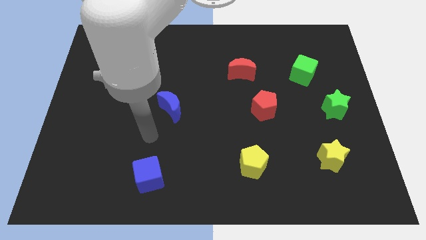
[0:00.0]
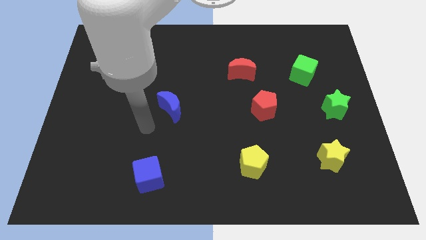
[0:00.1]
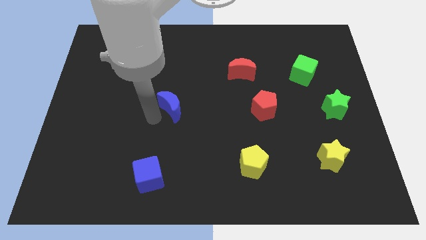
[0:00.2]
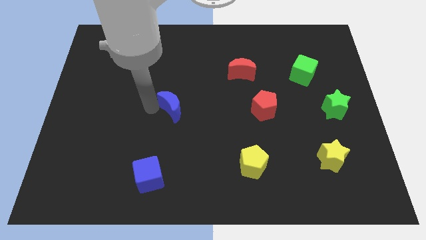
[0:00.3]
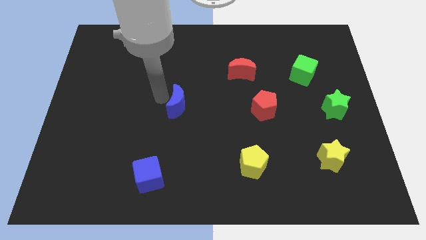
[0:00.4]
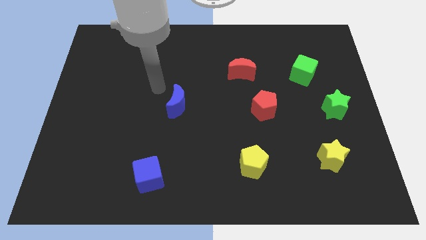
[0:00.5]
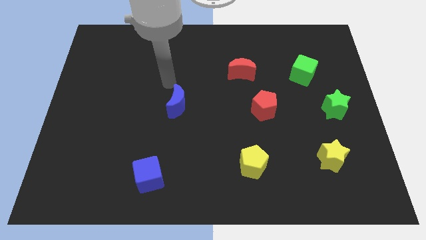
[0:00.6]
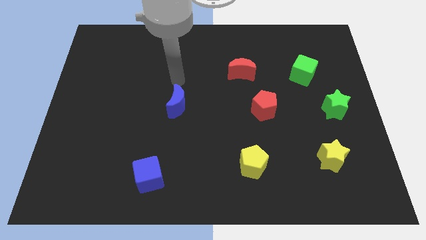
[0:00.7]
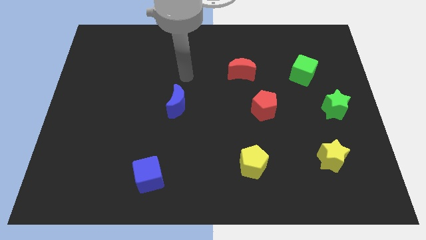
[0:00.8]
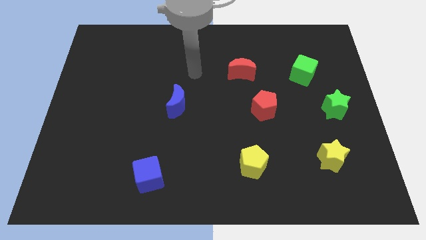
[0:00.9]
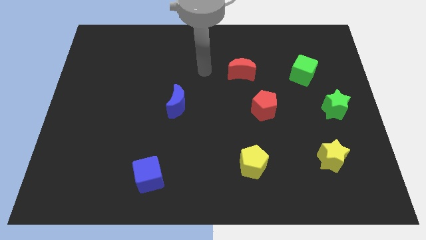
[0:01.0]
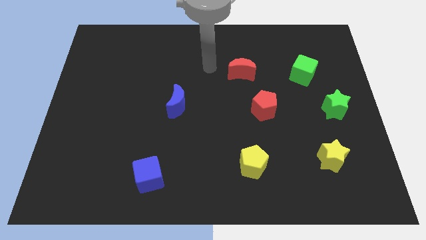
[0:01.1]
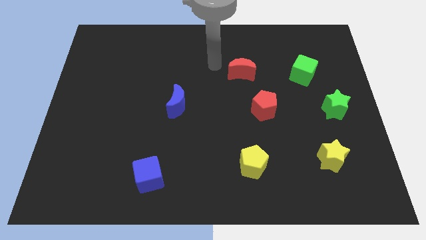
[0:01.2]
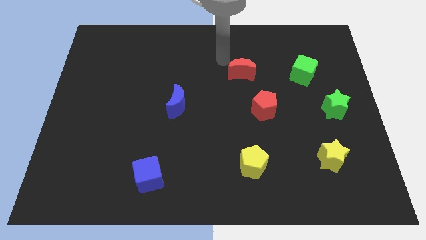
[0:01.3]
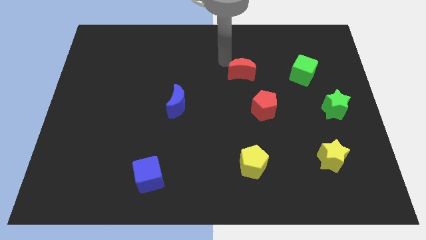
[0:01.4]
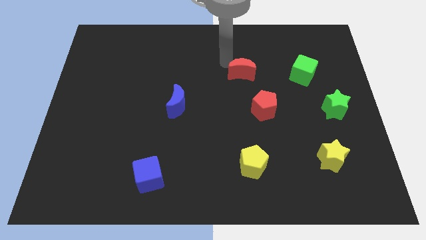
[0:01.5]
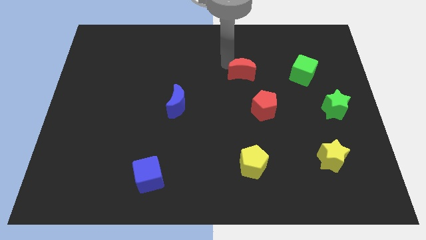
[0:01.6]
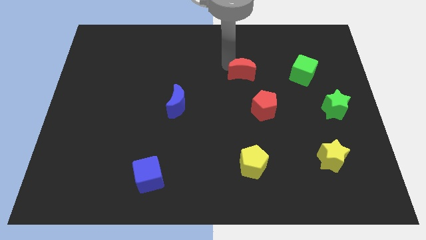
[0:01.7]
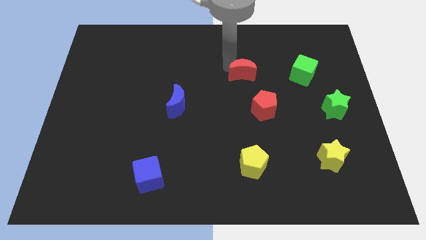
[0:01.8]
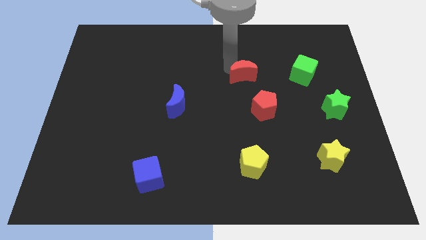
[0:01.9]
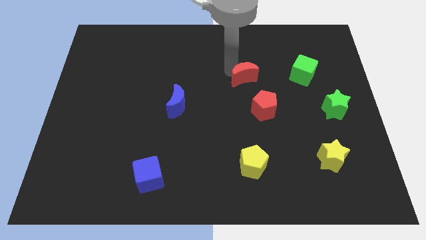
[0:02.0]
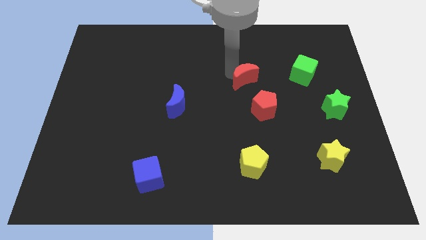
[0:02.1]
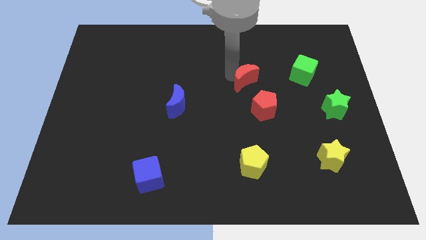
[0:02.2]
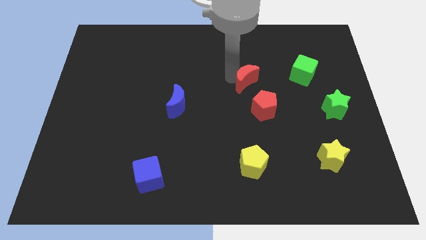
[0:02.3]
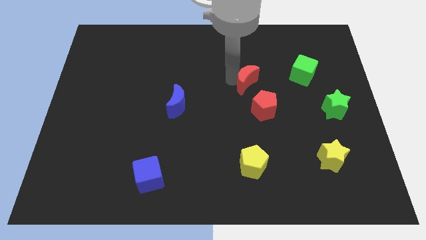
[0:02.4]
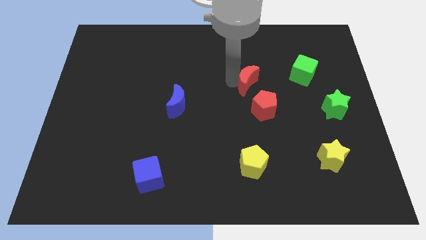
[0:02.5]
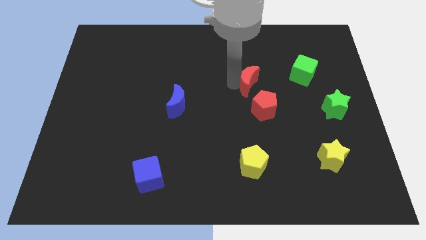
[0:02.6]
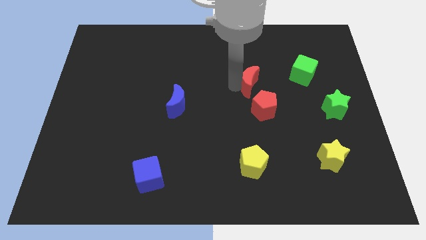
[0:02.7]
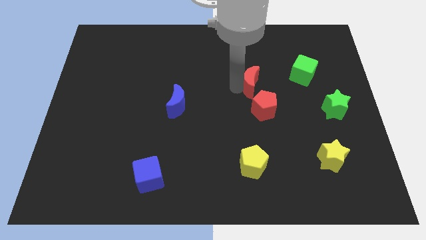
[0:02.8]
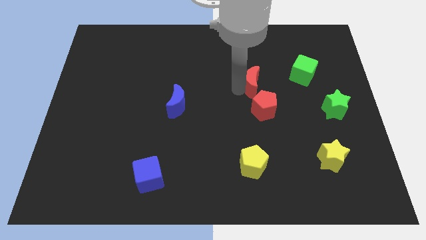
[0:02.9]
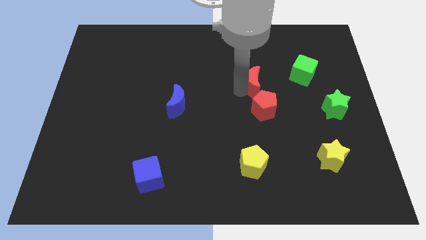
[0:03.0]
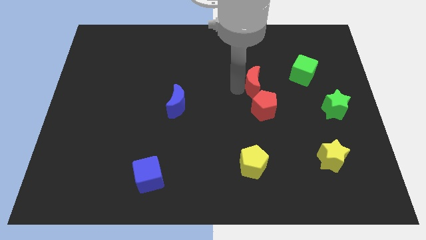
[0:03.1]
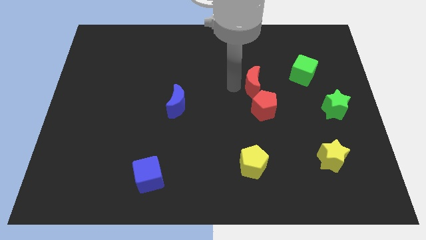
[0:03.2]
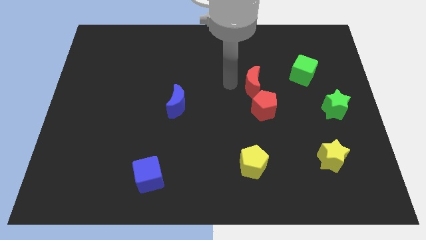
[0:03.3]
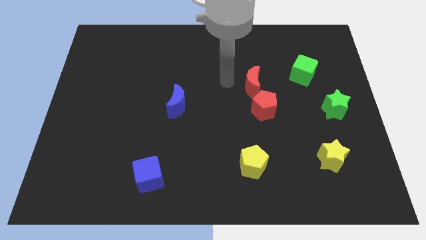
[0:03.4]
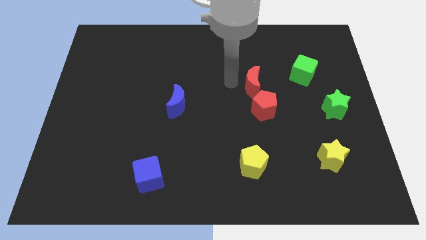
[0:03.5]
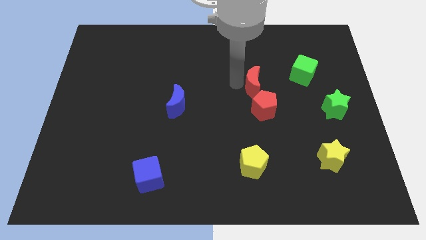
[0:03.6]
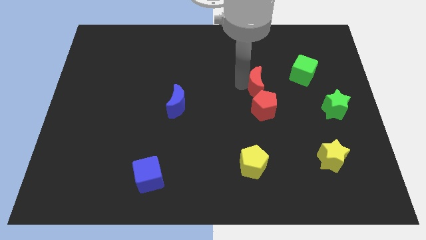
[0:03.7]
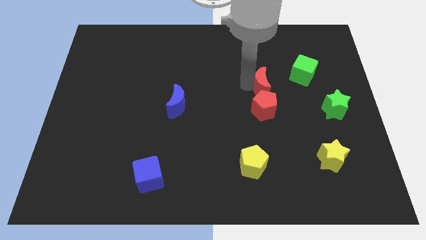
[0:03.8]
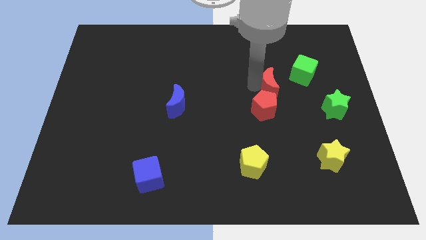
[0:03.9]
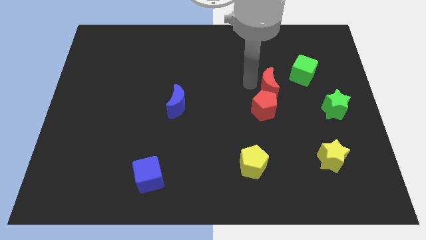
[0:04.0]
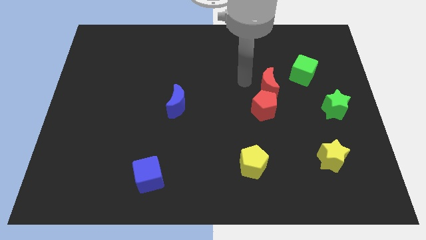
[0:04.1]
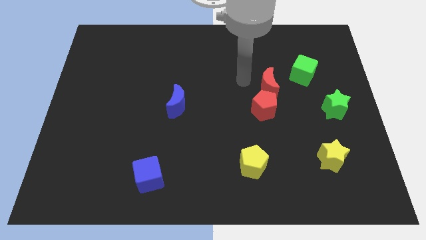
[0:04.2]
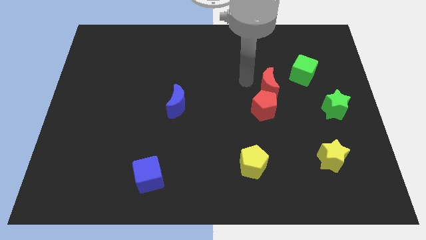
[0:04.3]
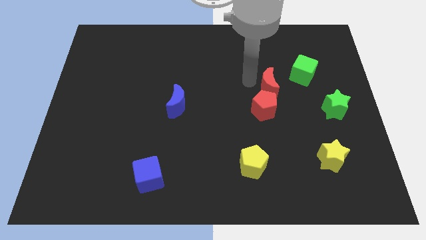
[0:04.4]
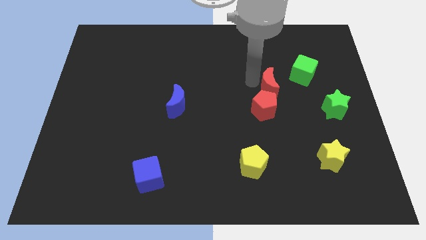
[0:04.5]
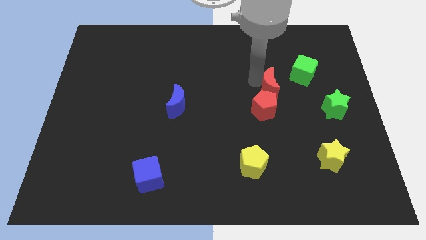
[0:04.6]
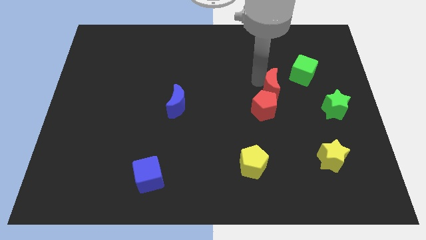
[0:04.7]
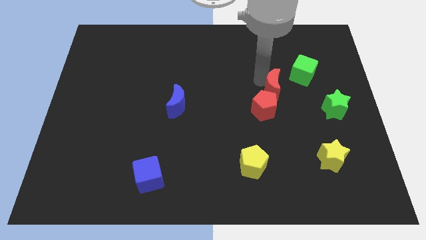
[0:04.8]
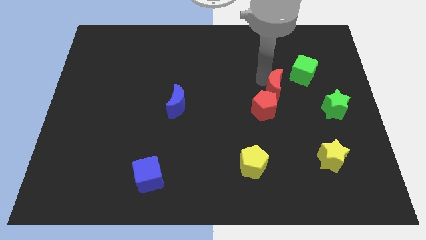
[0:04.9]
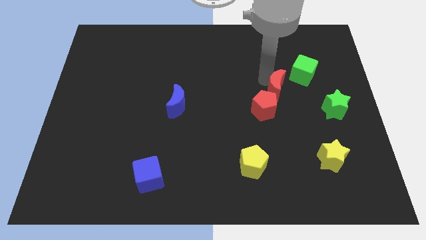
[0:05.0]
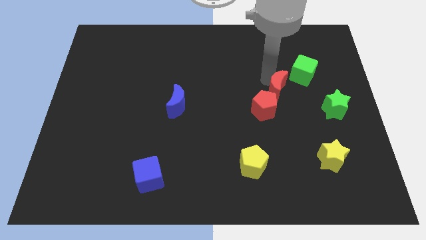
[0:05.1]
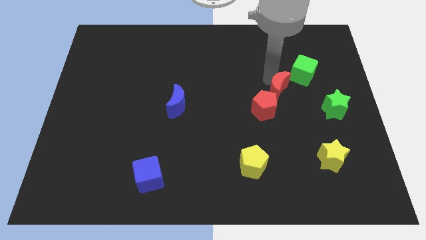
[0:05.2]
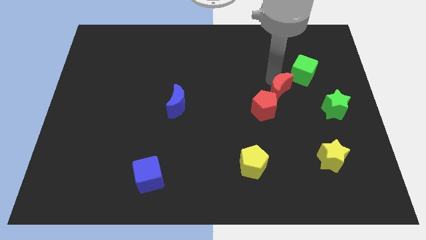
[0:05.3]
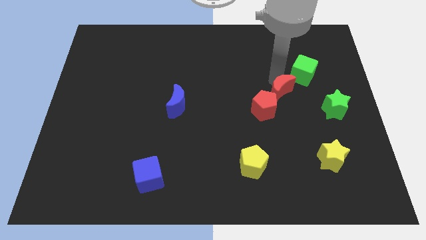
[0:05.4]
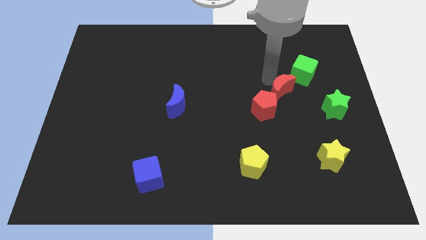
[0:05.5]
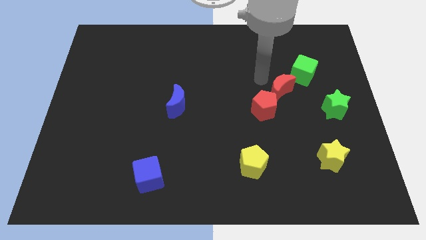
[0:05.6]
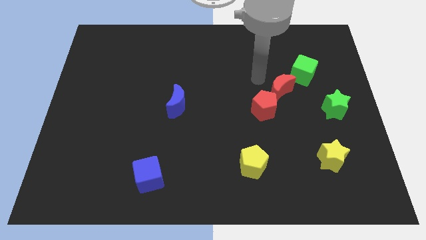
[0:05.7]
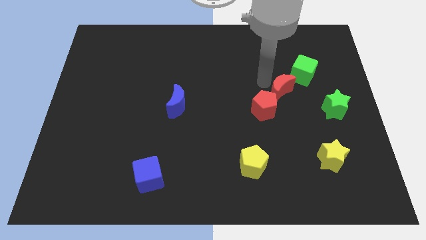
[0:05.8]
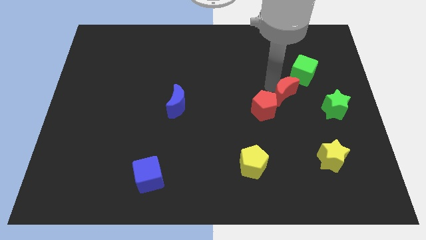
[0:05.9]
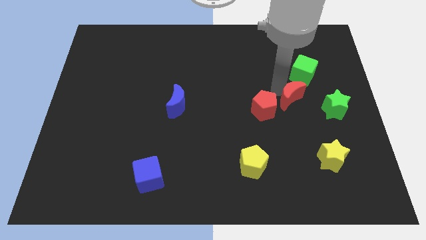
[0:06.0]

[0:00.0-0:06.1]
push the red moon to the bottom side of the green cube

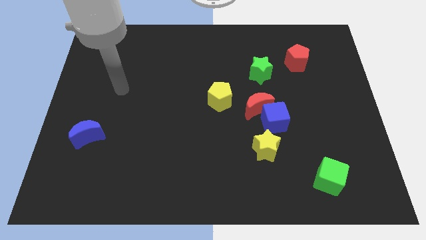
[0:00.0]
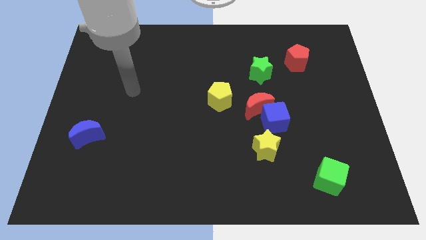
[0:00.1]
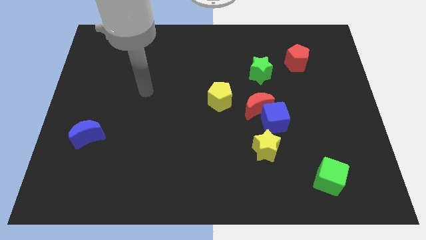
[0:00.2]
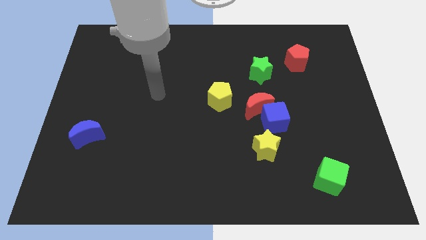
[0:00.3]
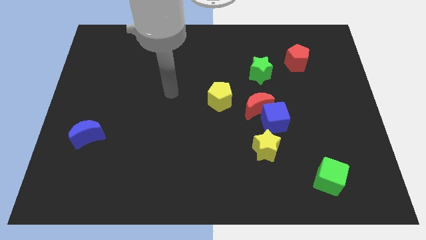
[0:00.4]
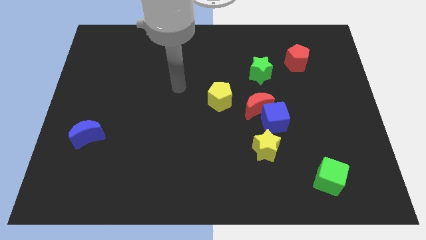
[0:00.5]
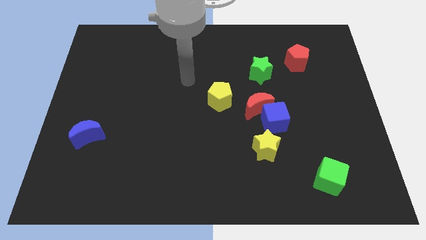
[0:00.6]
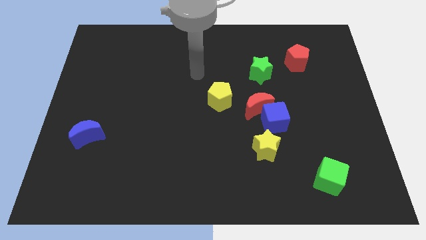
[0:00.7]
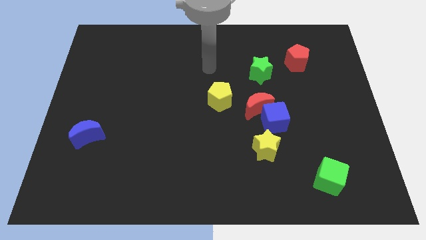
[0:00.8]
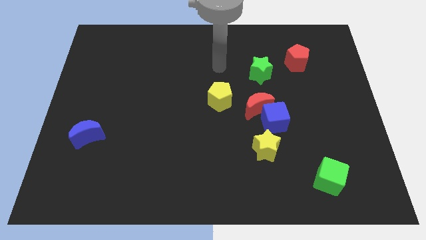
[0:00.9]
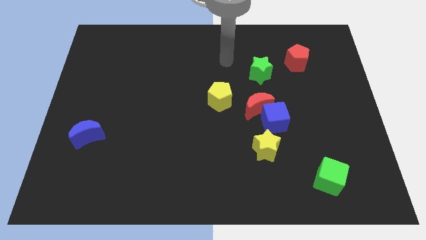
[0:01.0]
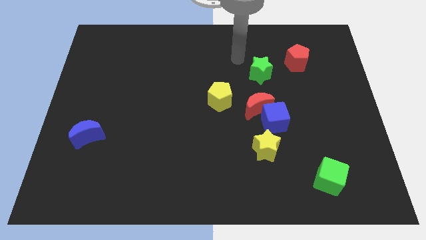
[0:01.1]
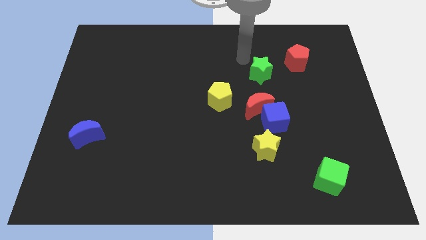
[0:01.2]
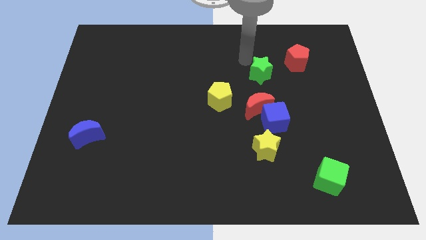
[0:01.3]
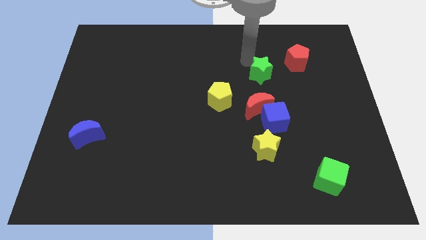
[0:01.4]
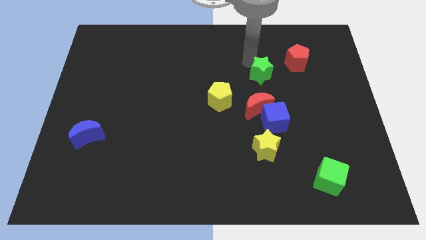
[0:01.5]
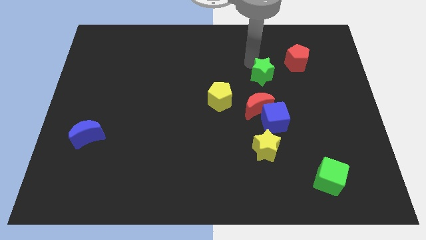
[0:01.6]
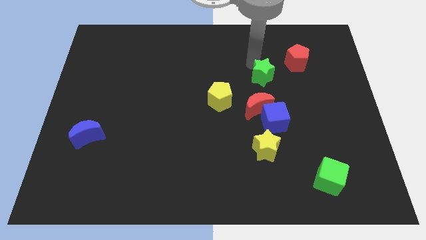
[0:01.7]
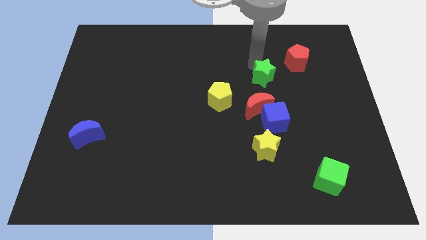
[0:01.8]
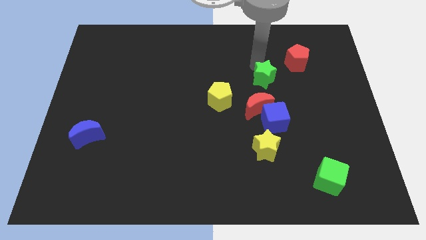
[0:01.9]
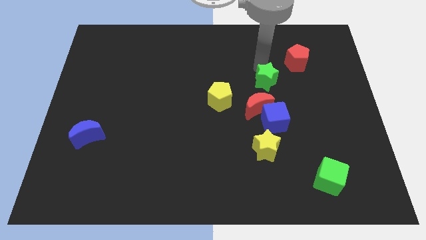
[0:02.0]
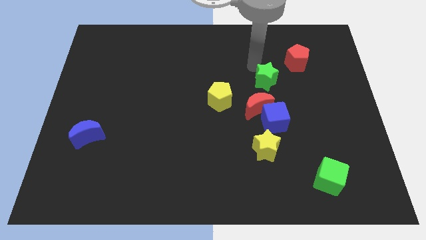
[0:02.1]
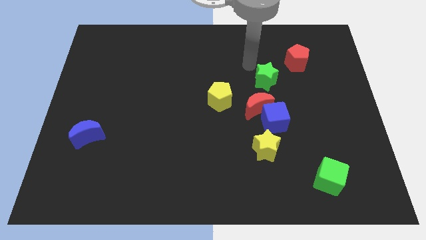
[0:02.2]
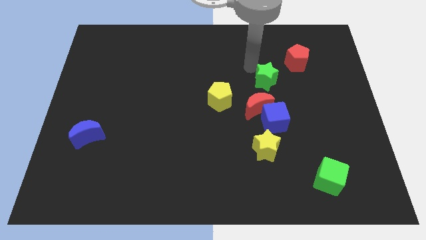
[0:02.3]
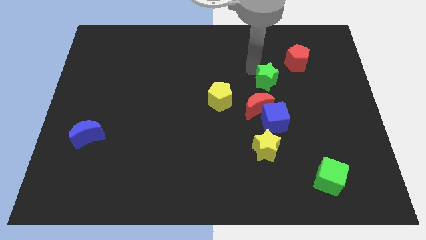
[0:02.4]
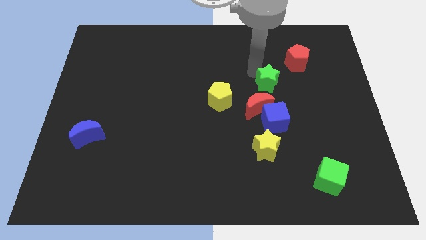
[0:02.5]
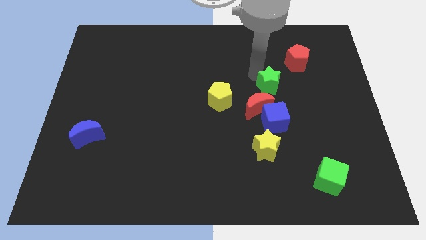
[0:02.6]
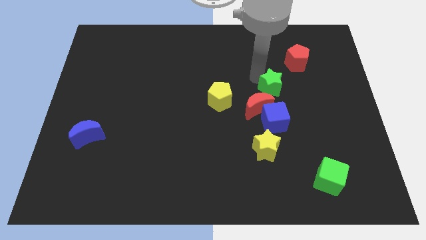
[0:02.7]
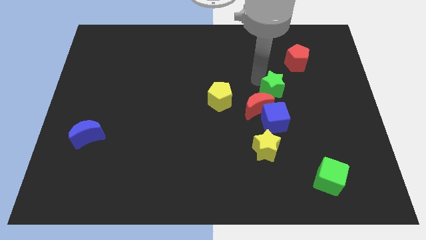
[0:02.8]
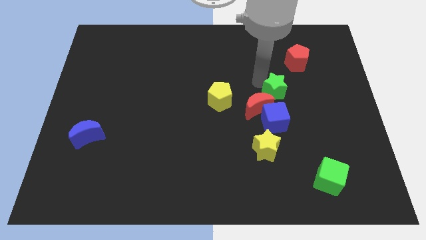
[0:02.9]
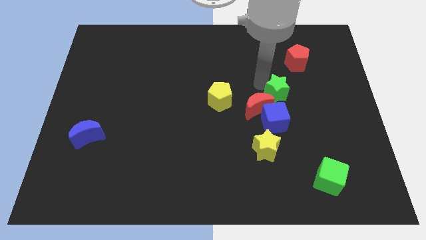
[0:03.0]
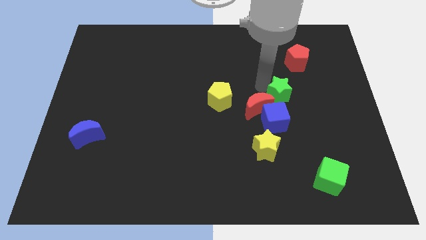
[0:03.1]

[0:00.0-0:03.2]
put the green star to the top right of the blue cube
